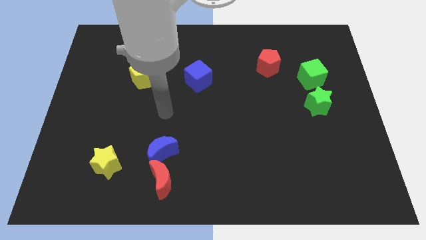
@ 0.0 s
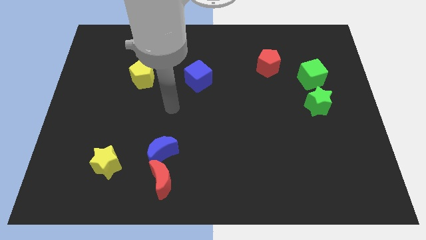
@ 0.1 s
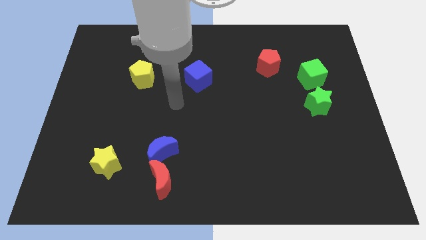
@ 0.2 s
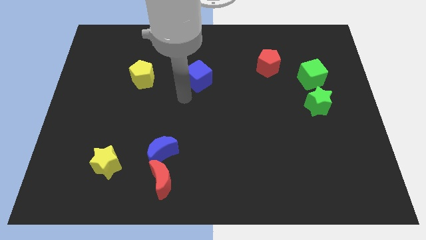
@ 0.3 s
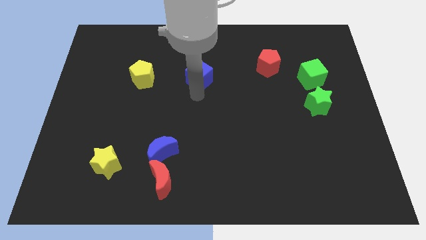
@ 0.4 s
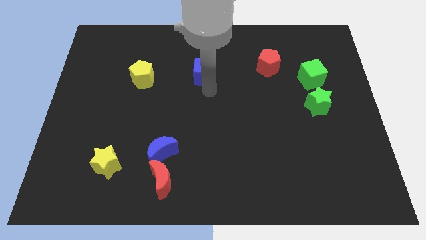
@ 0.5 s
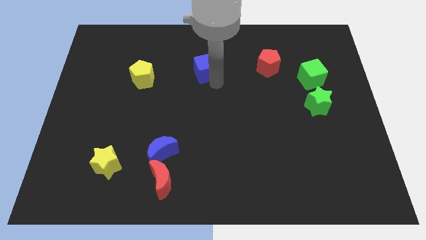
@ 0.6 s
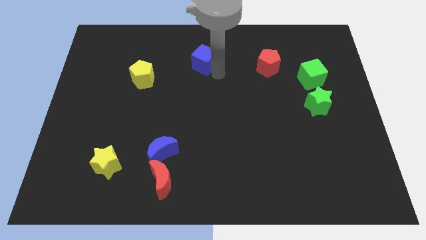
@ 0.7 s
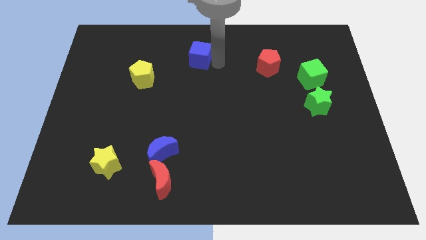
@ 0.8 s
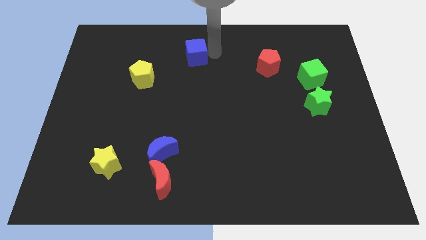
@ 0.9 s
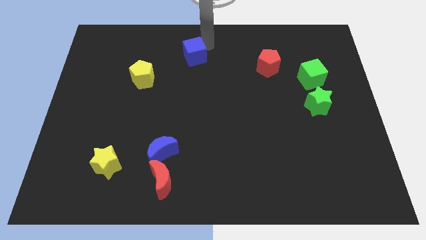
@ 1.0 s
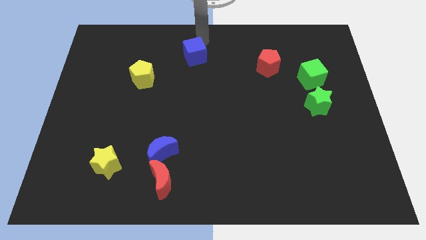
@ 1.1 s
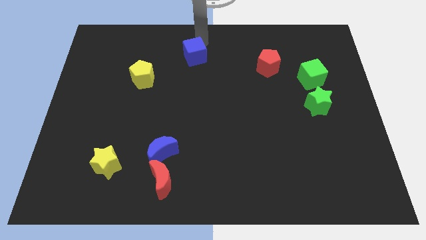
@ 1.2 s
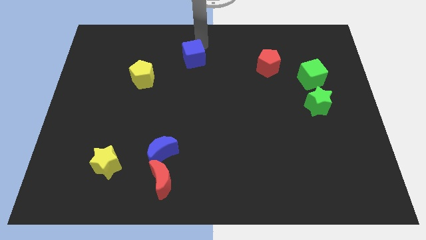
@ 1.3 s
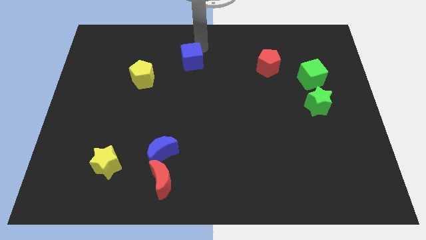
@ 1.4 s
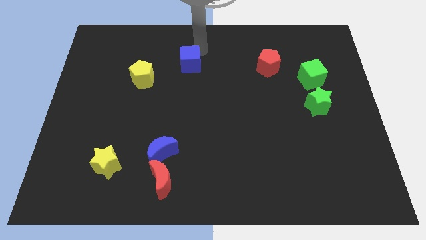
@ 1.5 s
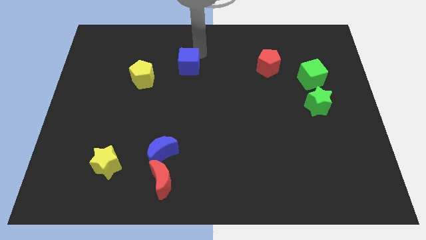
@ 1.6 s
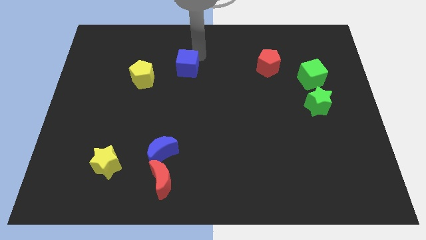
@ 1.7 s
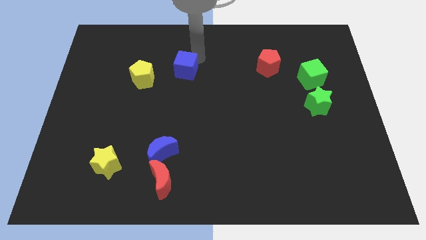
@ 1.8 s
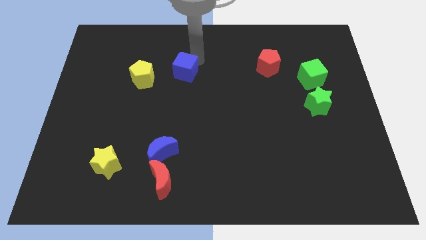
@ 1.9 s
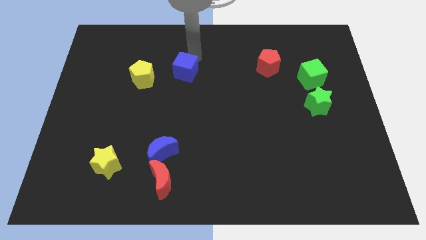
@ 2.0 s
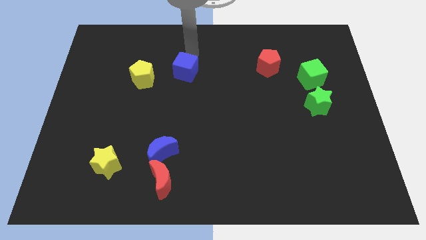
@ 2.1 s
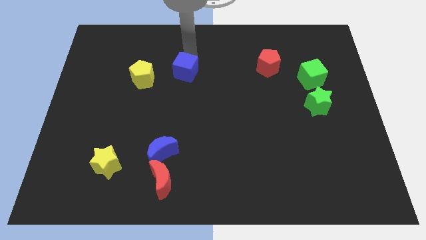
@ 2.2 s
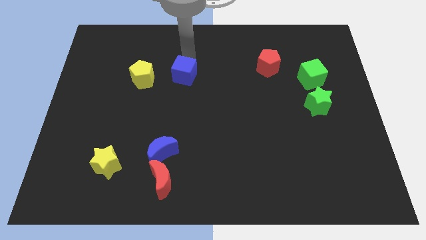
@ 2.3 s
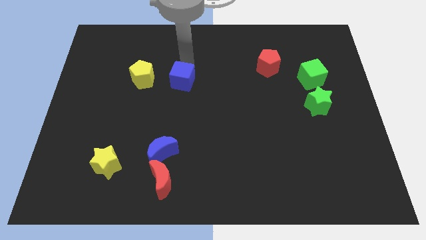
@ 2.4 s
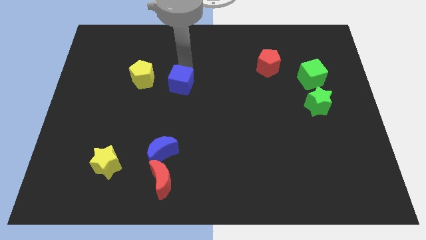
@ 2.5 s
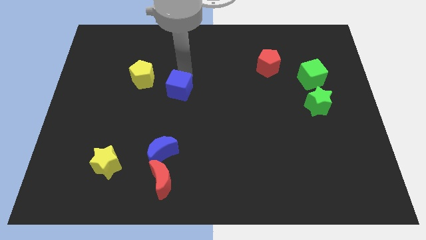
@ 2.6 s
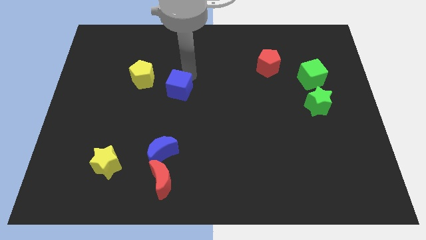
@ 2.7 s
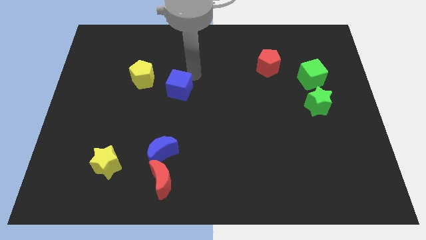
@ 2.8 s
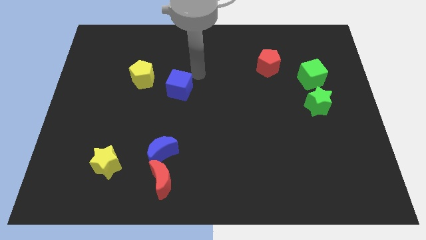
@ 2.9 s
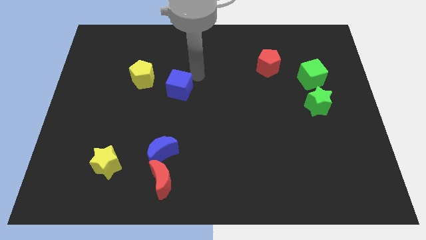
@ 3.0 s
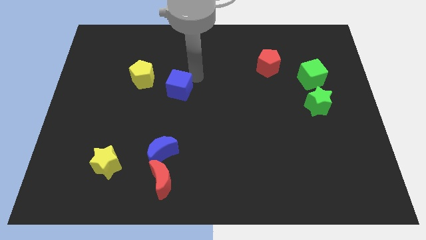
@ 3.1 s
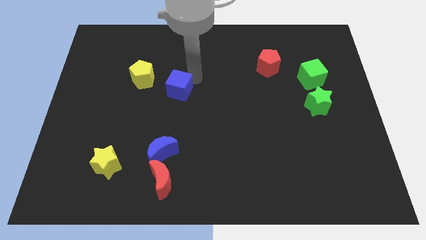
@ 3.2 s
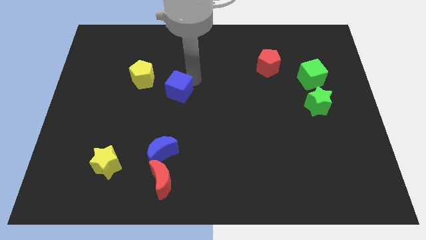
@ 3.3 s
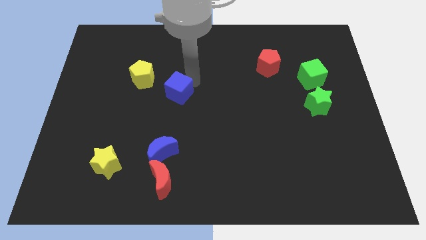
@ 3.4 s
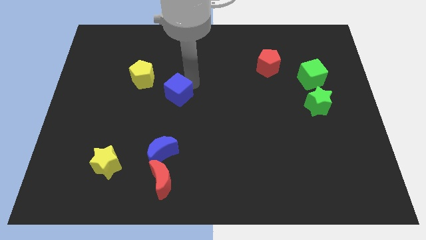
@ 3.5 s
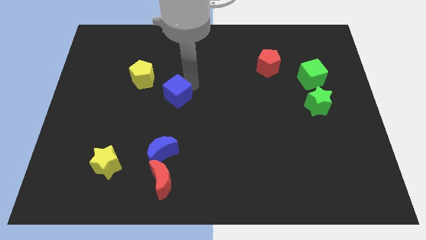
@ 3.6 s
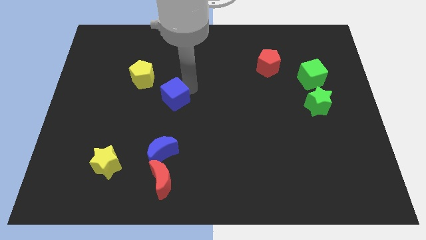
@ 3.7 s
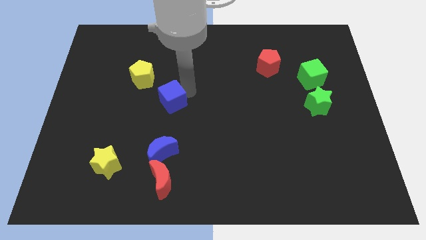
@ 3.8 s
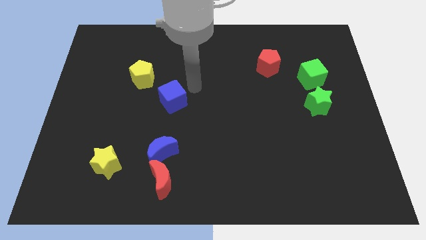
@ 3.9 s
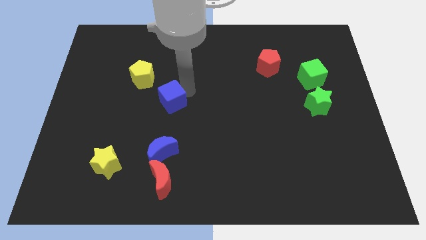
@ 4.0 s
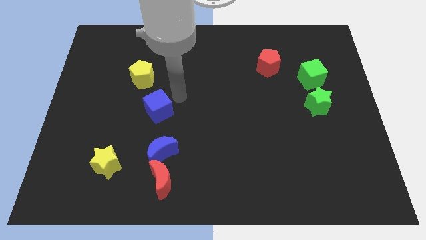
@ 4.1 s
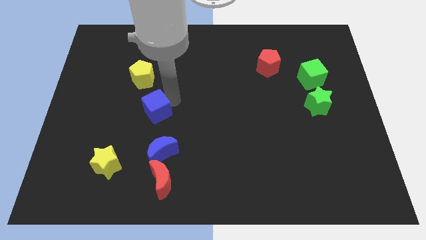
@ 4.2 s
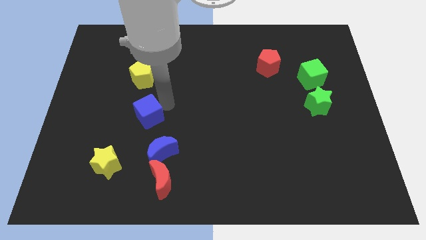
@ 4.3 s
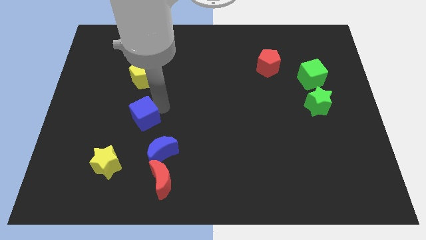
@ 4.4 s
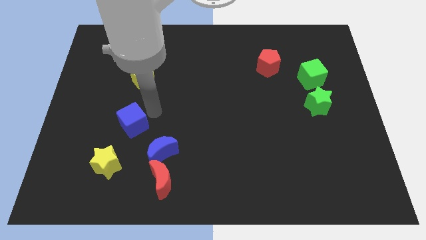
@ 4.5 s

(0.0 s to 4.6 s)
slide the blue cube down and to the left

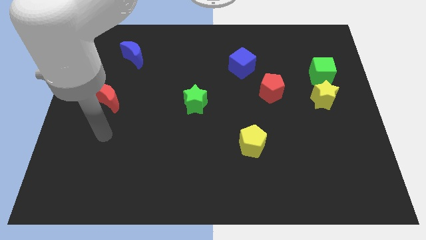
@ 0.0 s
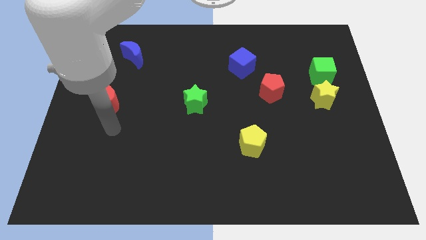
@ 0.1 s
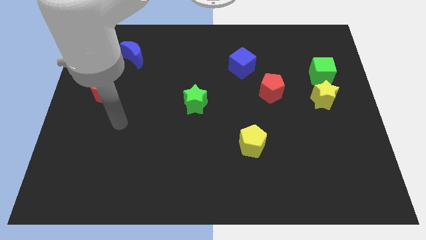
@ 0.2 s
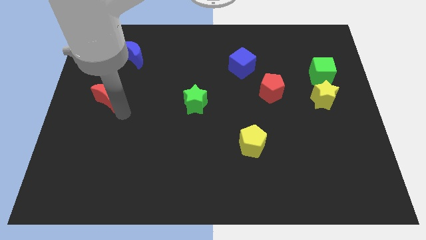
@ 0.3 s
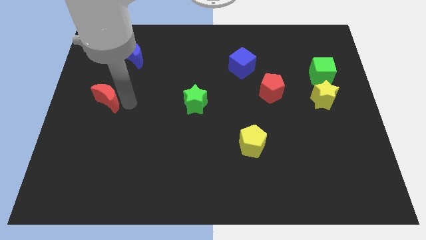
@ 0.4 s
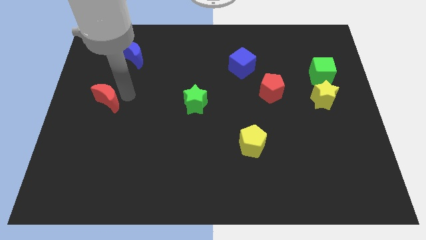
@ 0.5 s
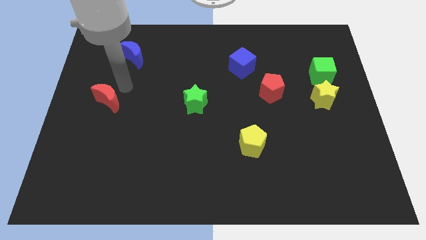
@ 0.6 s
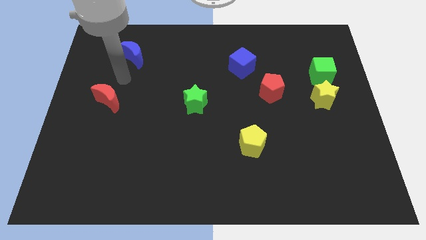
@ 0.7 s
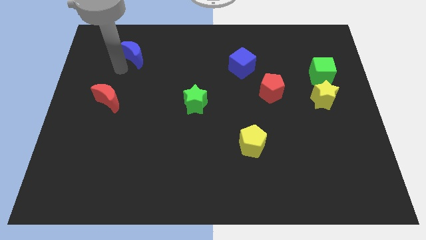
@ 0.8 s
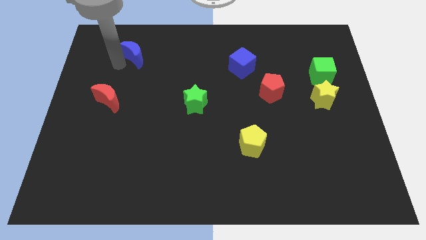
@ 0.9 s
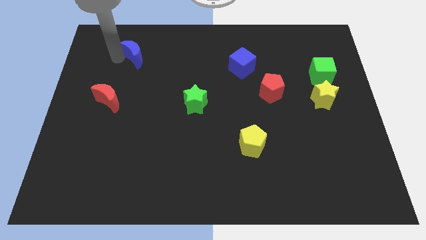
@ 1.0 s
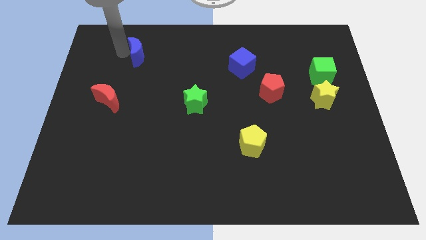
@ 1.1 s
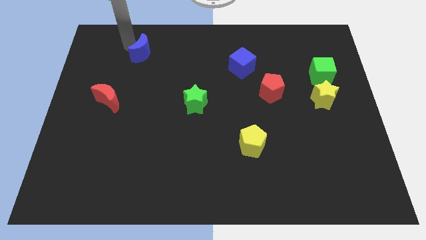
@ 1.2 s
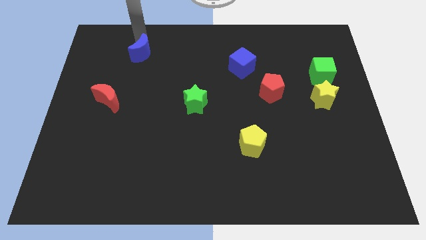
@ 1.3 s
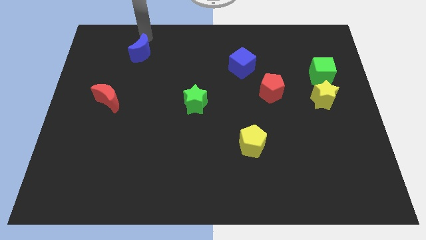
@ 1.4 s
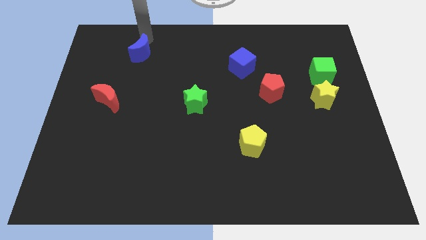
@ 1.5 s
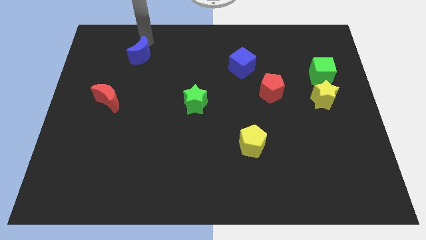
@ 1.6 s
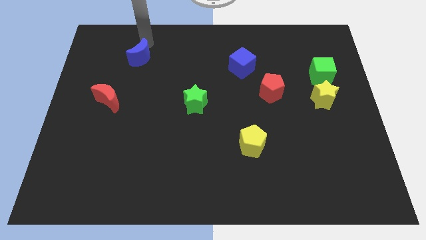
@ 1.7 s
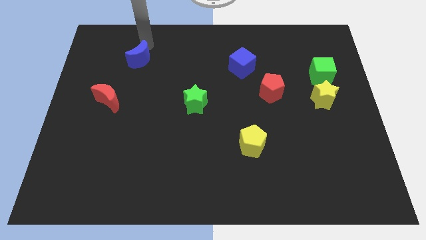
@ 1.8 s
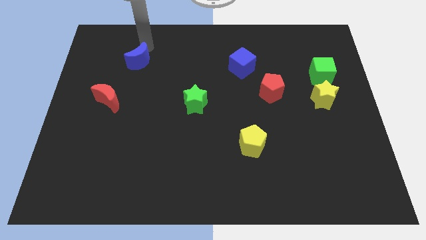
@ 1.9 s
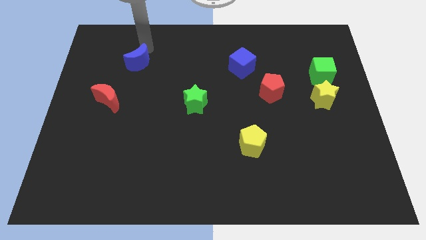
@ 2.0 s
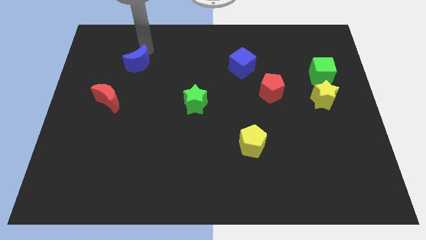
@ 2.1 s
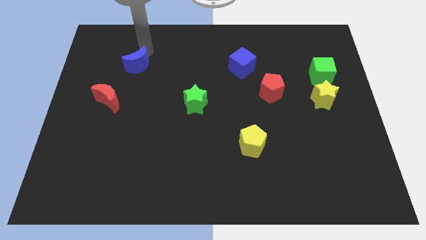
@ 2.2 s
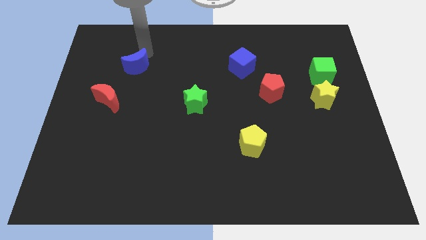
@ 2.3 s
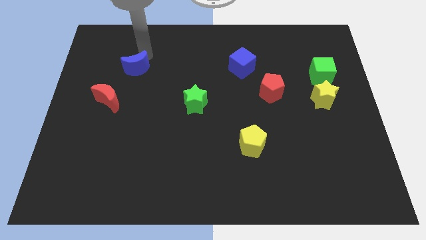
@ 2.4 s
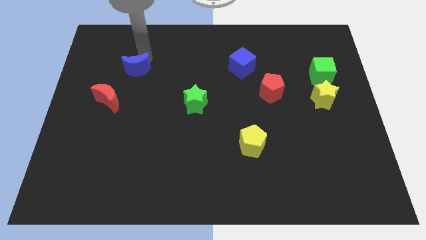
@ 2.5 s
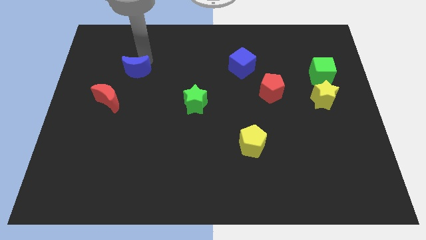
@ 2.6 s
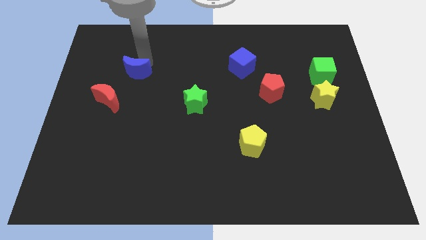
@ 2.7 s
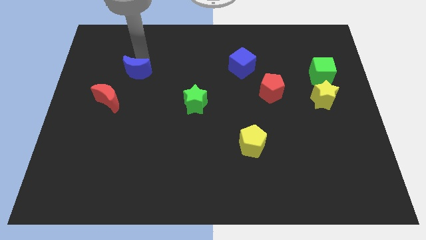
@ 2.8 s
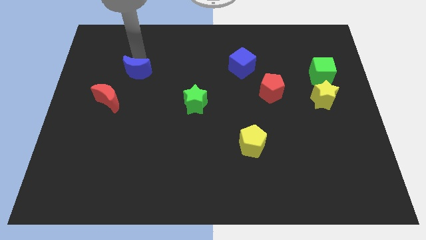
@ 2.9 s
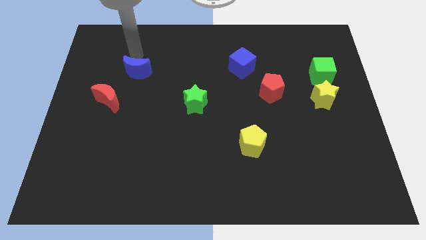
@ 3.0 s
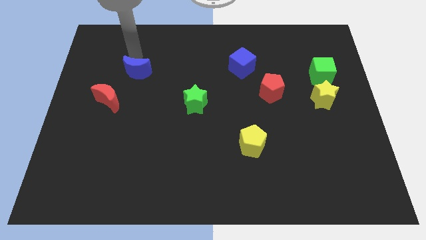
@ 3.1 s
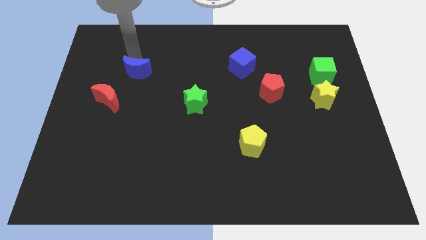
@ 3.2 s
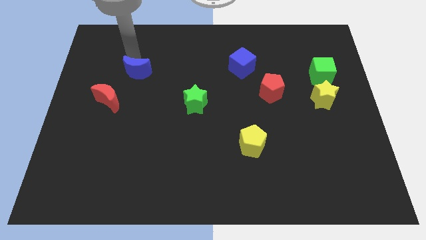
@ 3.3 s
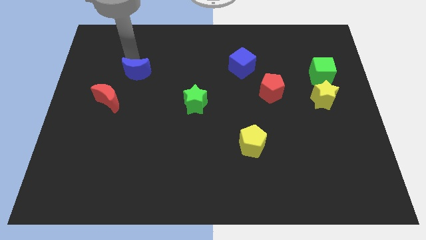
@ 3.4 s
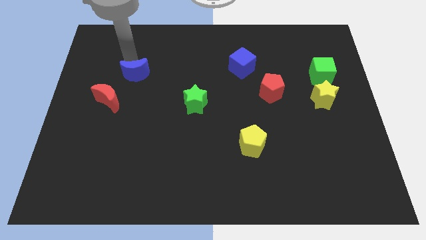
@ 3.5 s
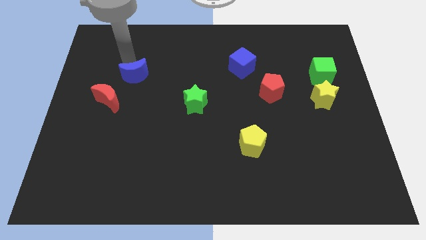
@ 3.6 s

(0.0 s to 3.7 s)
slightly push the blue moon down

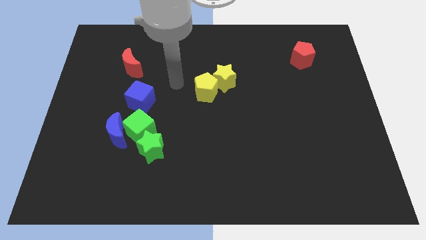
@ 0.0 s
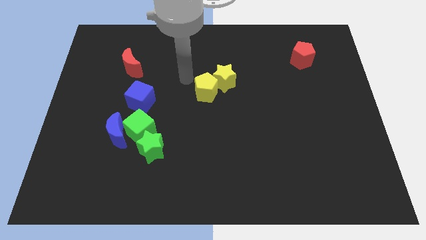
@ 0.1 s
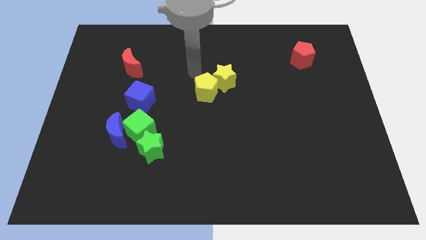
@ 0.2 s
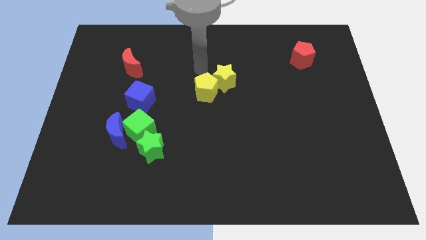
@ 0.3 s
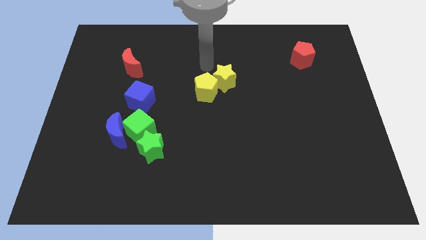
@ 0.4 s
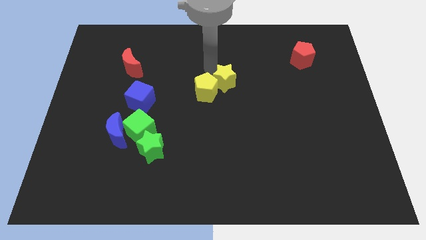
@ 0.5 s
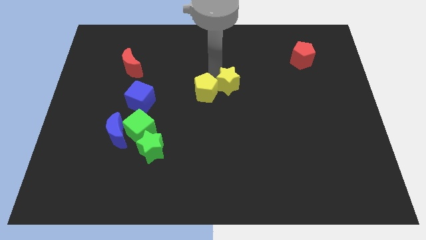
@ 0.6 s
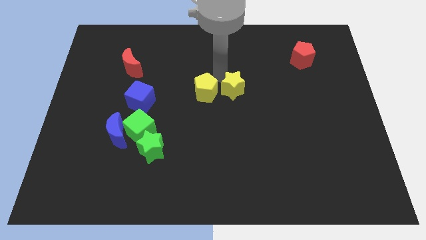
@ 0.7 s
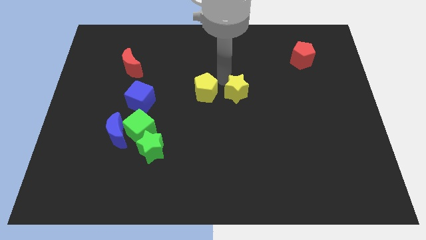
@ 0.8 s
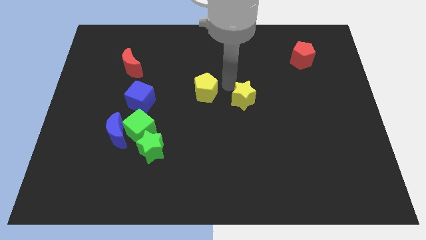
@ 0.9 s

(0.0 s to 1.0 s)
slightly slide the yellow star downwards and then right
